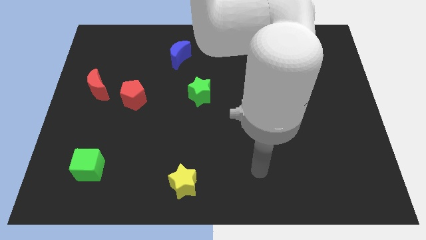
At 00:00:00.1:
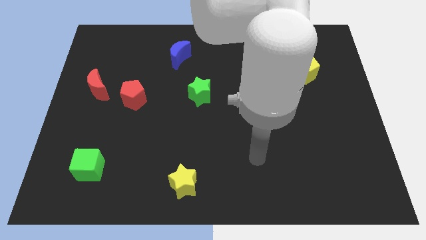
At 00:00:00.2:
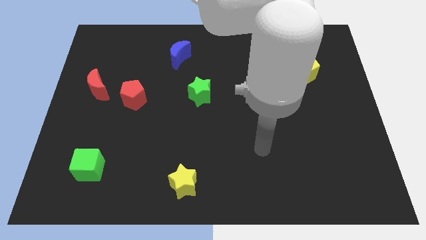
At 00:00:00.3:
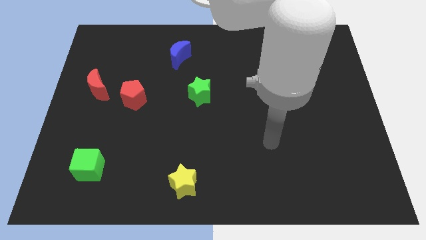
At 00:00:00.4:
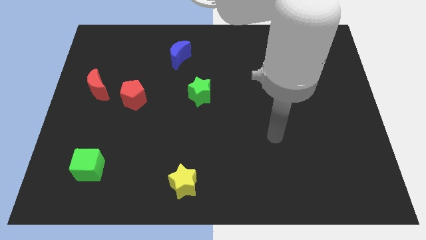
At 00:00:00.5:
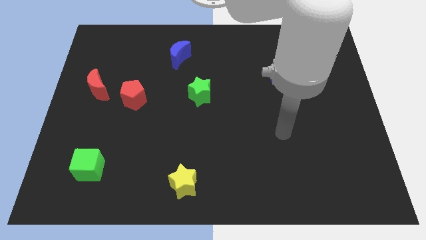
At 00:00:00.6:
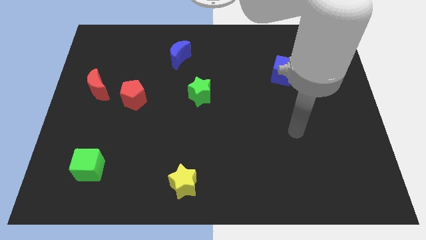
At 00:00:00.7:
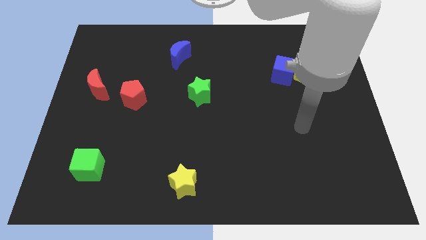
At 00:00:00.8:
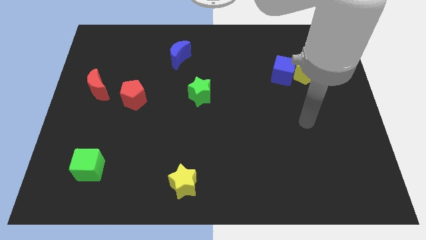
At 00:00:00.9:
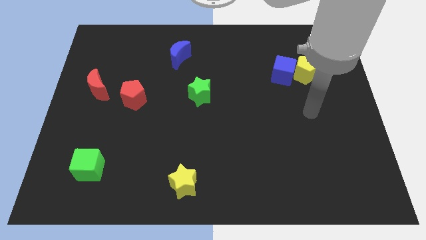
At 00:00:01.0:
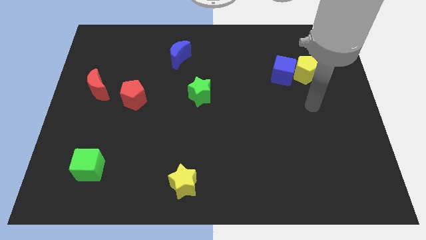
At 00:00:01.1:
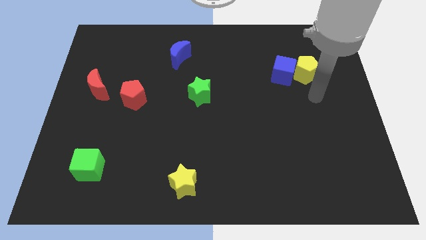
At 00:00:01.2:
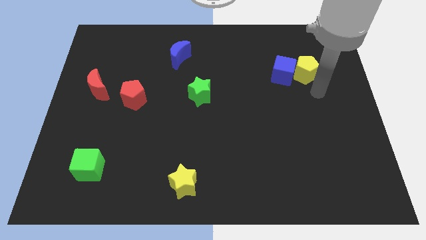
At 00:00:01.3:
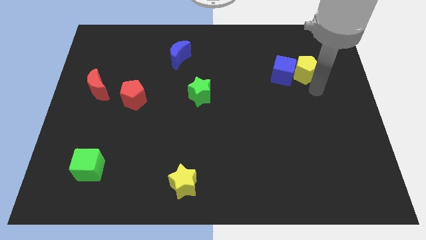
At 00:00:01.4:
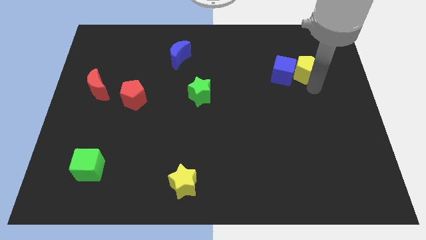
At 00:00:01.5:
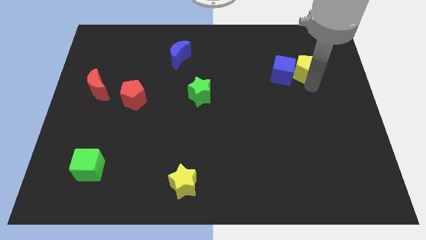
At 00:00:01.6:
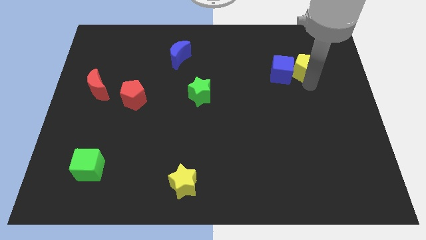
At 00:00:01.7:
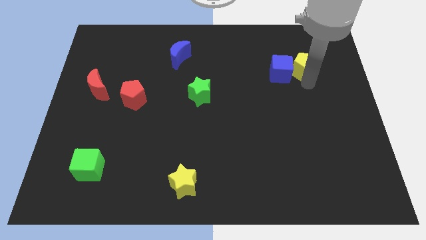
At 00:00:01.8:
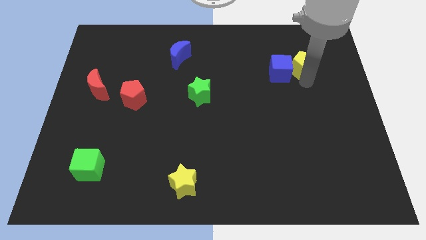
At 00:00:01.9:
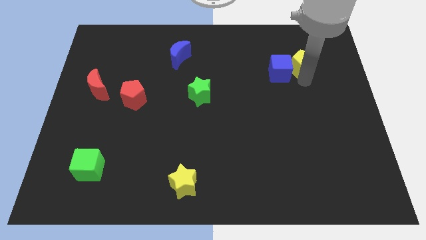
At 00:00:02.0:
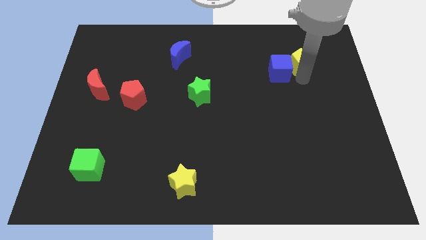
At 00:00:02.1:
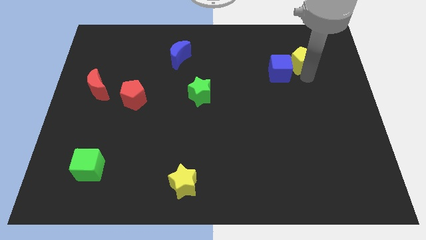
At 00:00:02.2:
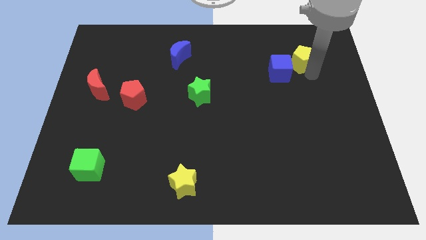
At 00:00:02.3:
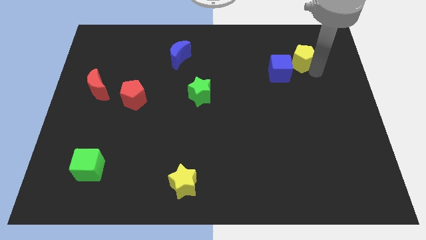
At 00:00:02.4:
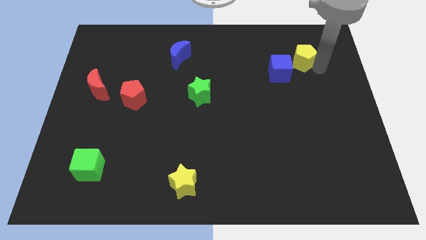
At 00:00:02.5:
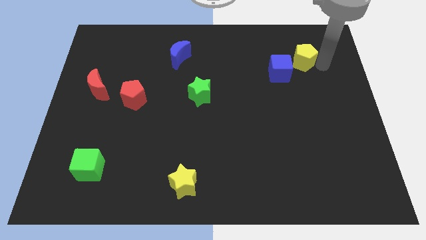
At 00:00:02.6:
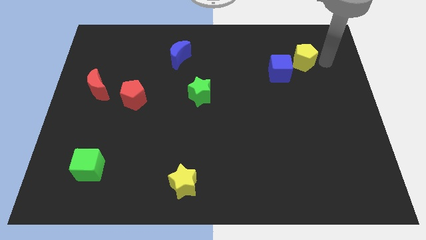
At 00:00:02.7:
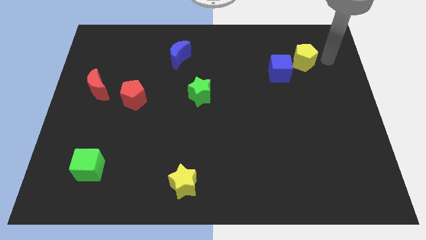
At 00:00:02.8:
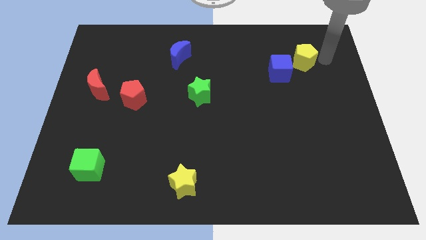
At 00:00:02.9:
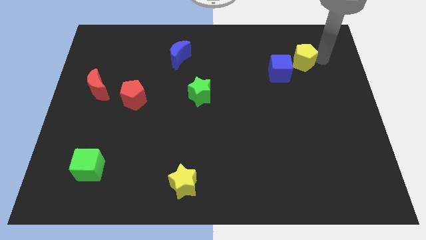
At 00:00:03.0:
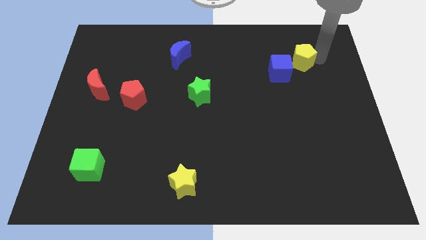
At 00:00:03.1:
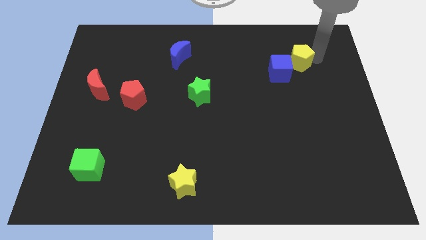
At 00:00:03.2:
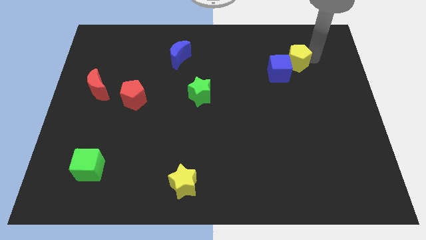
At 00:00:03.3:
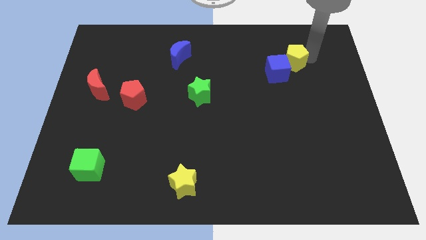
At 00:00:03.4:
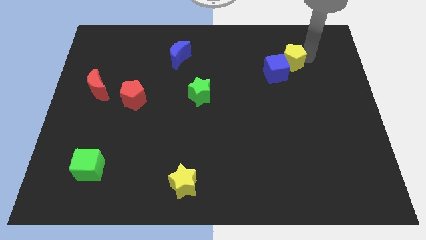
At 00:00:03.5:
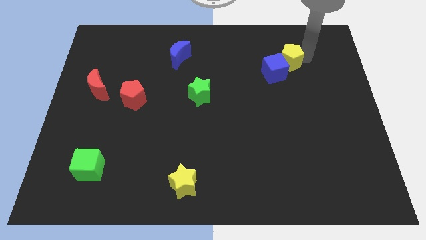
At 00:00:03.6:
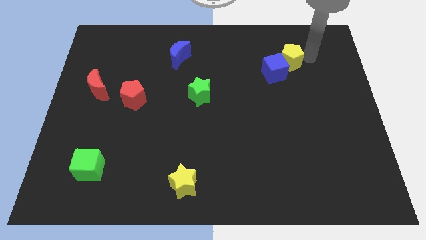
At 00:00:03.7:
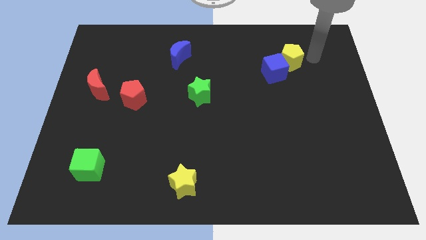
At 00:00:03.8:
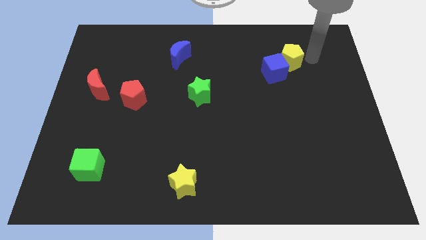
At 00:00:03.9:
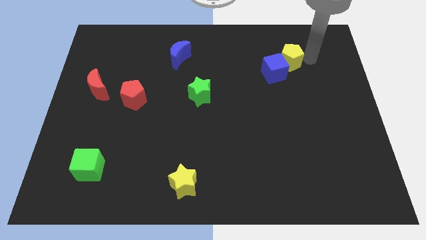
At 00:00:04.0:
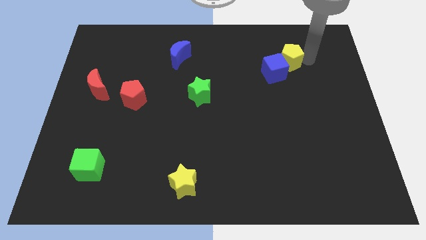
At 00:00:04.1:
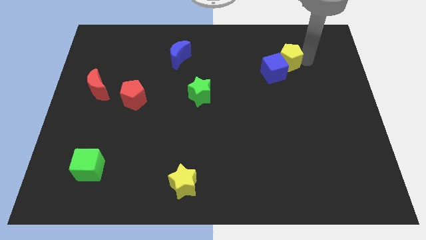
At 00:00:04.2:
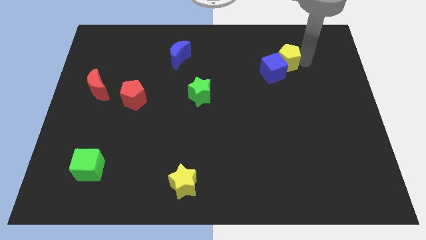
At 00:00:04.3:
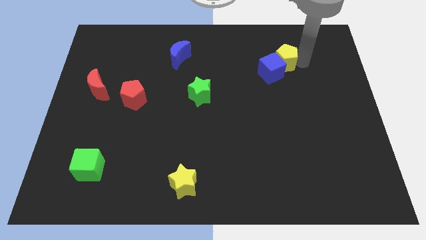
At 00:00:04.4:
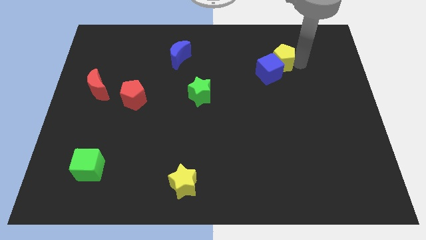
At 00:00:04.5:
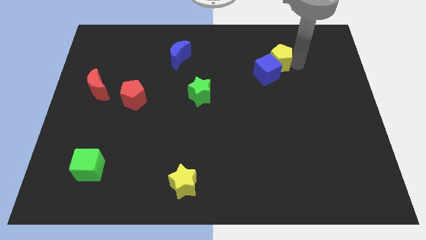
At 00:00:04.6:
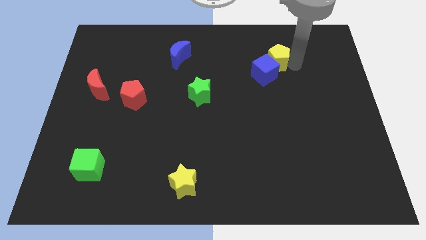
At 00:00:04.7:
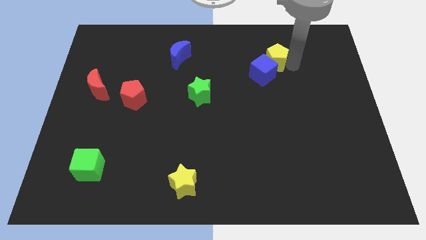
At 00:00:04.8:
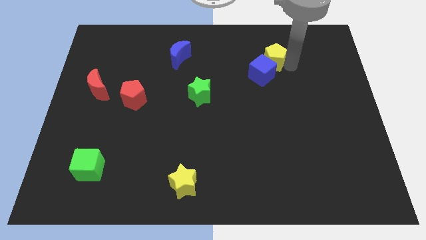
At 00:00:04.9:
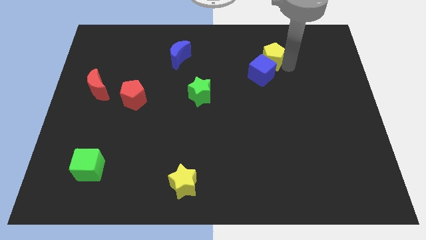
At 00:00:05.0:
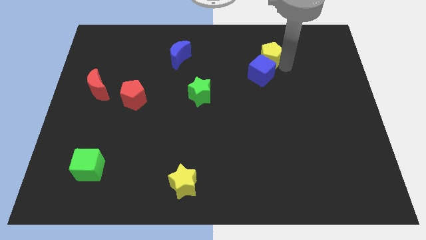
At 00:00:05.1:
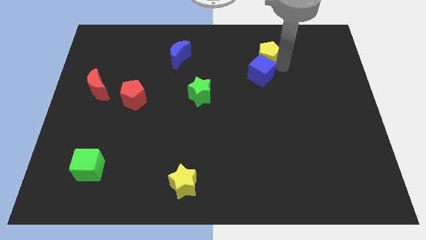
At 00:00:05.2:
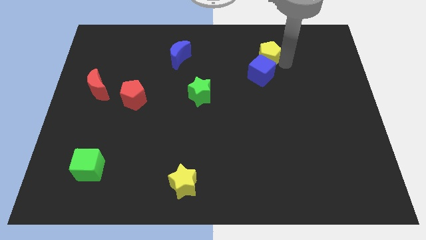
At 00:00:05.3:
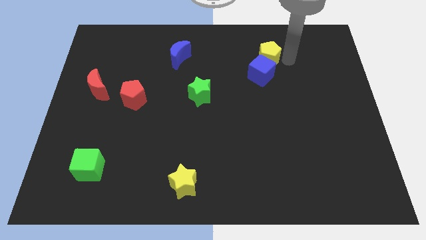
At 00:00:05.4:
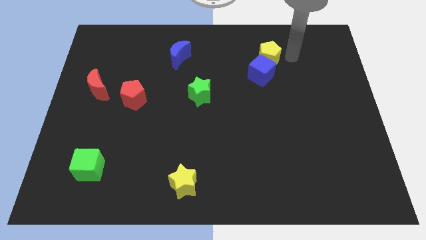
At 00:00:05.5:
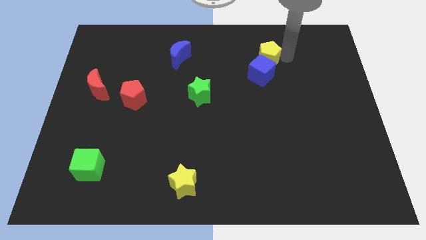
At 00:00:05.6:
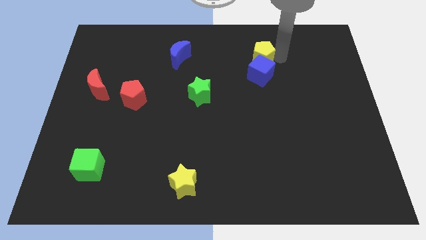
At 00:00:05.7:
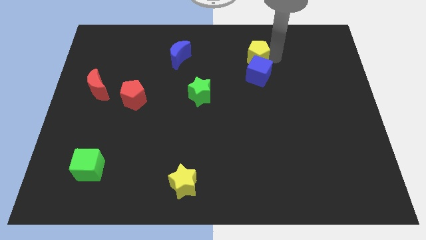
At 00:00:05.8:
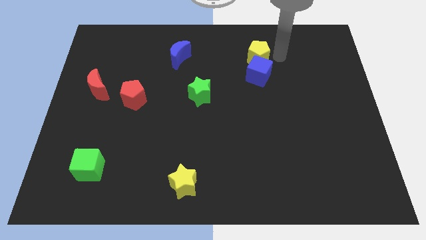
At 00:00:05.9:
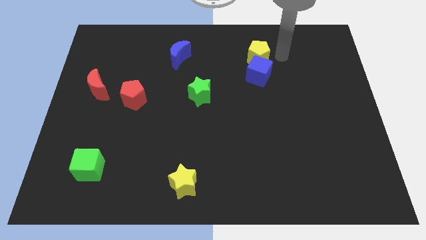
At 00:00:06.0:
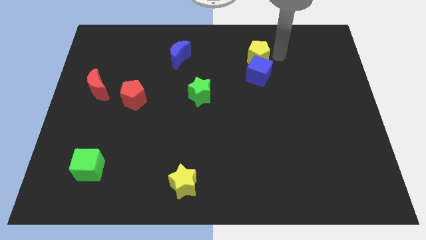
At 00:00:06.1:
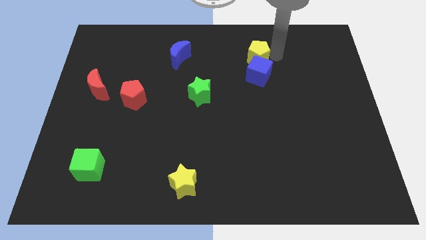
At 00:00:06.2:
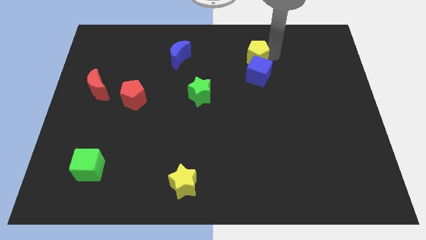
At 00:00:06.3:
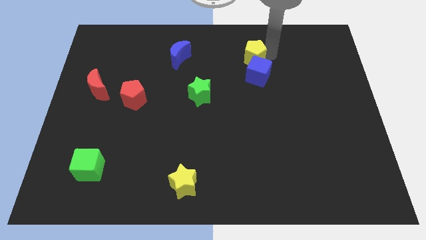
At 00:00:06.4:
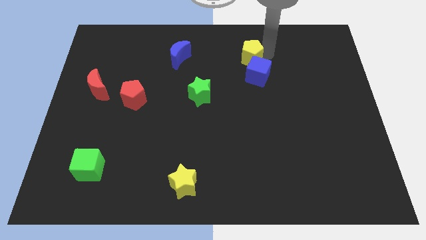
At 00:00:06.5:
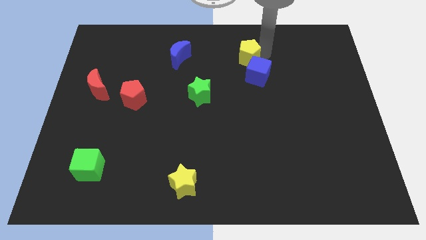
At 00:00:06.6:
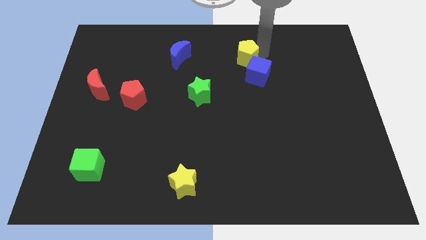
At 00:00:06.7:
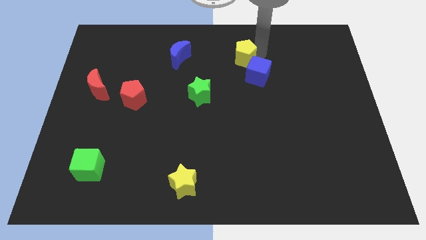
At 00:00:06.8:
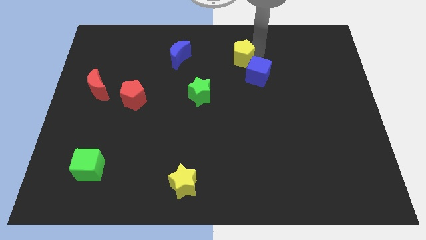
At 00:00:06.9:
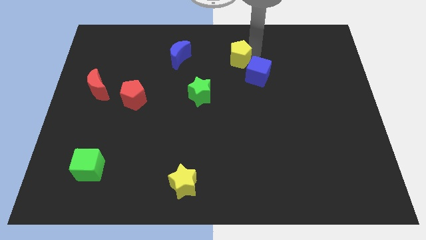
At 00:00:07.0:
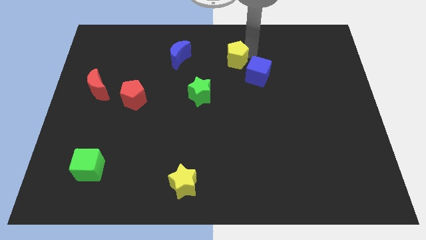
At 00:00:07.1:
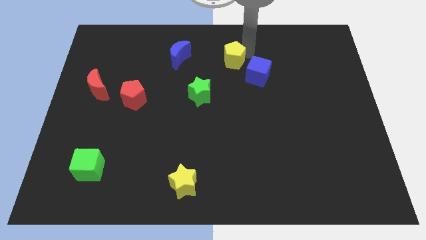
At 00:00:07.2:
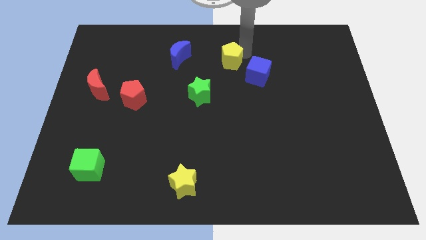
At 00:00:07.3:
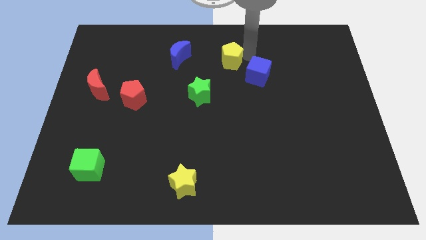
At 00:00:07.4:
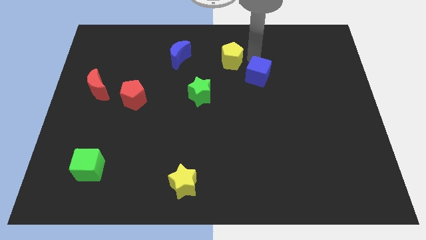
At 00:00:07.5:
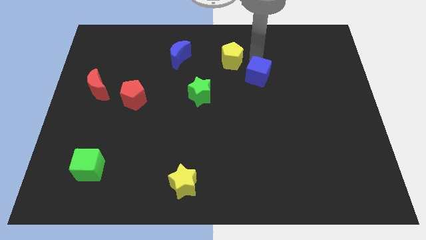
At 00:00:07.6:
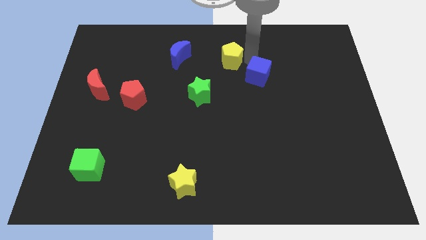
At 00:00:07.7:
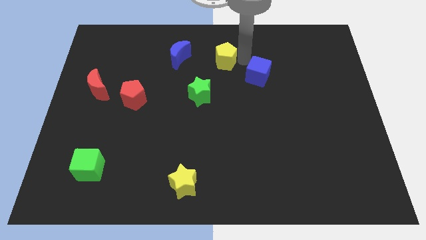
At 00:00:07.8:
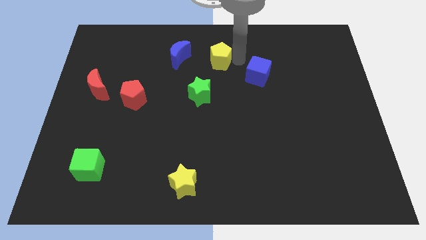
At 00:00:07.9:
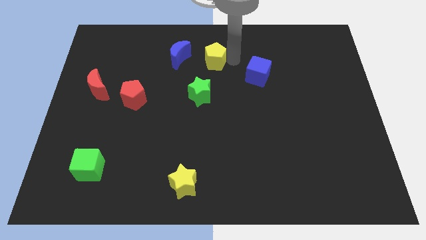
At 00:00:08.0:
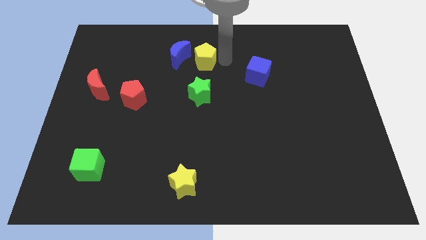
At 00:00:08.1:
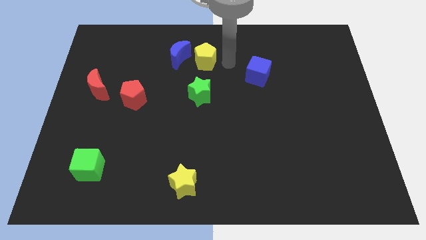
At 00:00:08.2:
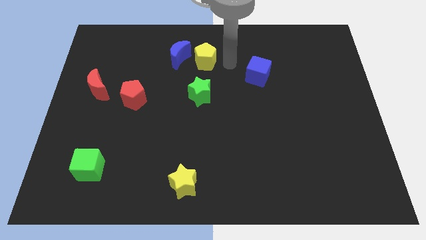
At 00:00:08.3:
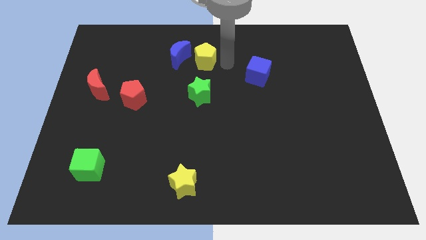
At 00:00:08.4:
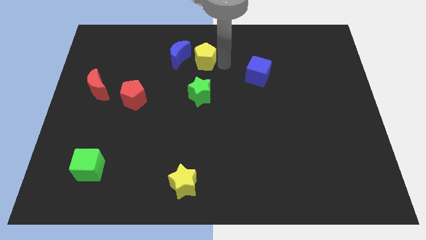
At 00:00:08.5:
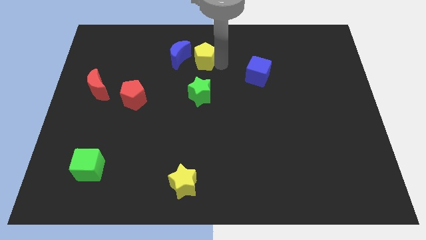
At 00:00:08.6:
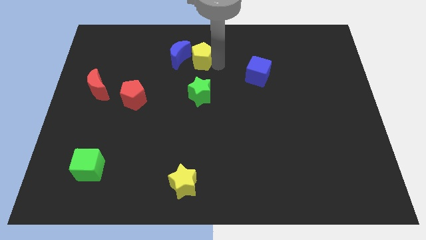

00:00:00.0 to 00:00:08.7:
slide the yellow pentagon towards the blue moon
